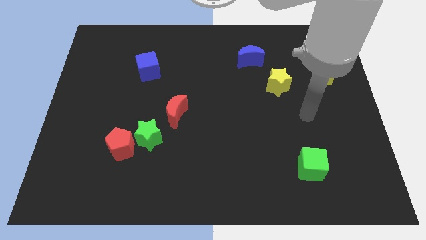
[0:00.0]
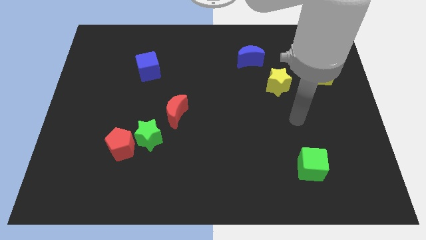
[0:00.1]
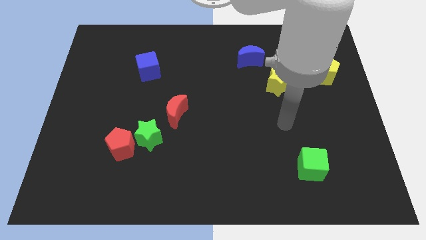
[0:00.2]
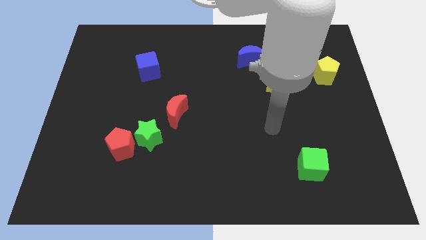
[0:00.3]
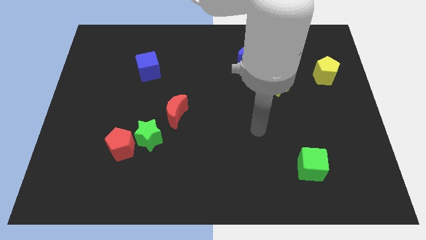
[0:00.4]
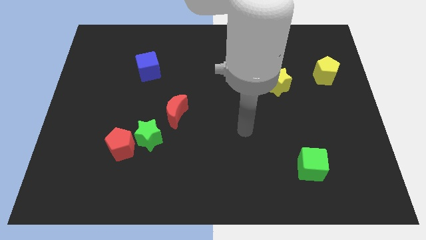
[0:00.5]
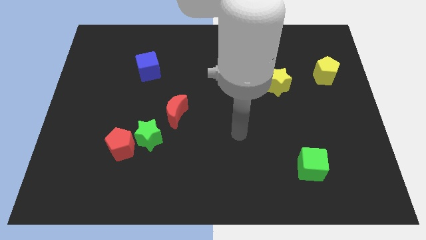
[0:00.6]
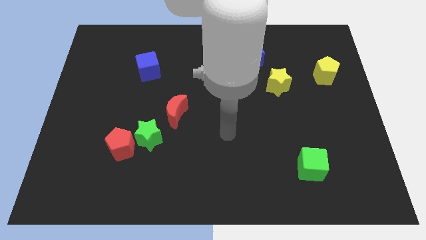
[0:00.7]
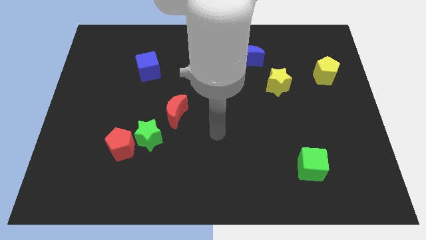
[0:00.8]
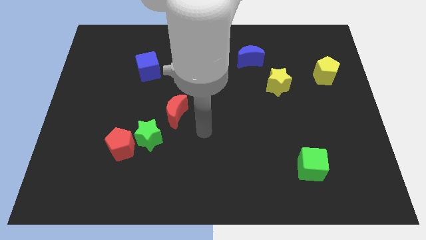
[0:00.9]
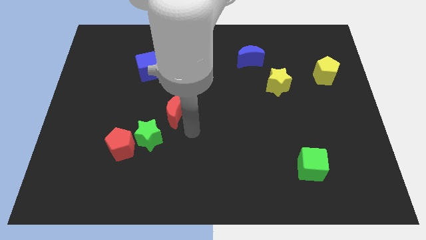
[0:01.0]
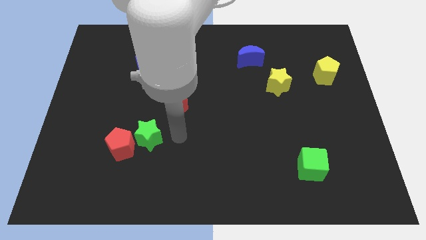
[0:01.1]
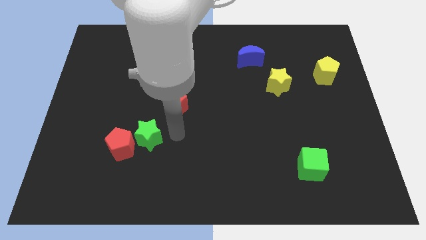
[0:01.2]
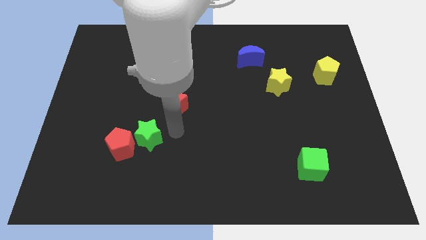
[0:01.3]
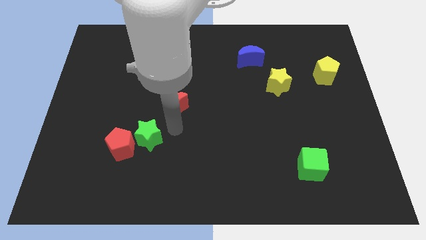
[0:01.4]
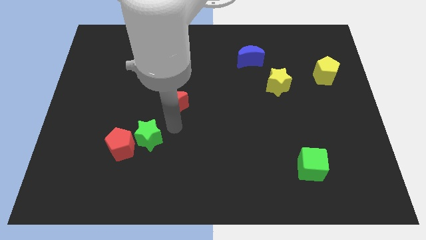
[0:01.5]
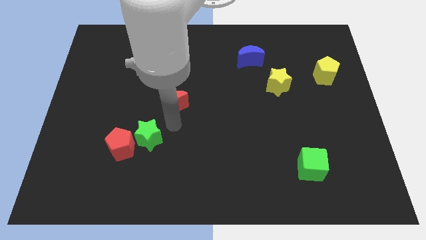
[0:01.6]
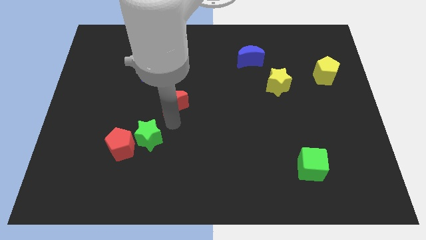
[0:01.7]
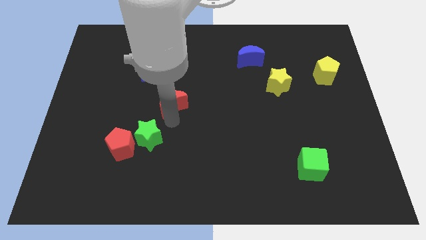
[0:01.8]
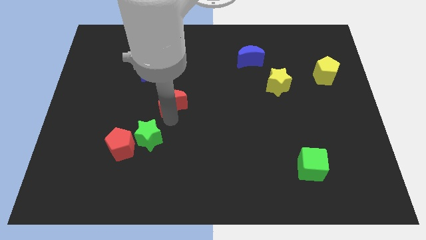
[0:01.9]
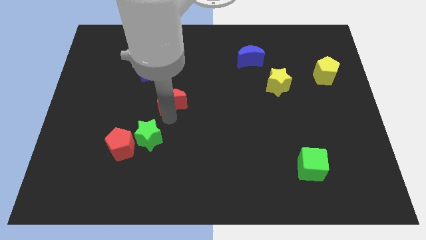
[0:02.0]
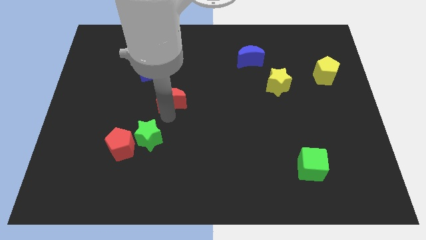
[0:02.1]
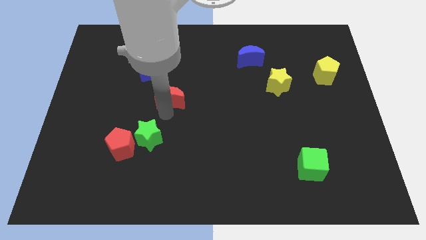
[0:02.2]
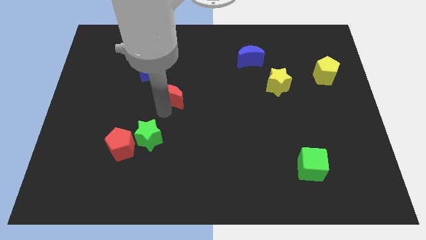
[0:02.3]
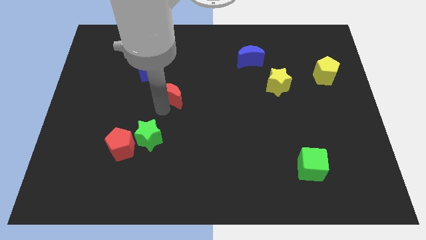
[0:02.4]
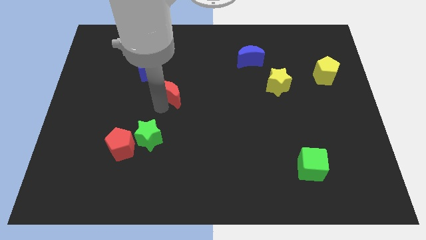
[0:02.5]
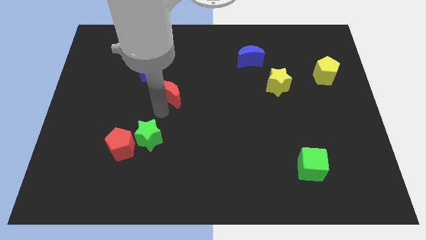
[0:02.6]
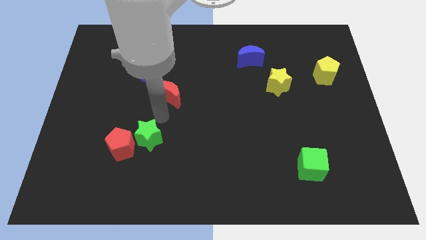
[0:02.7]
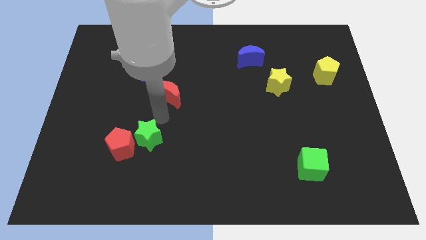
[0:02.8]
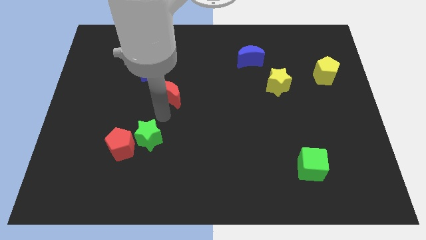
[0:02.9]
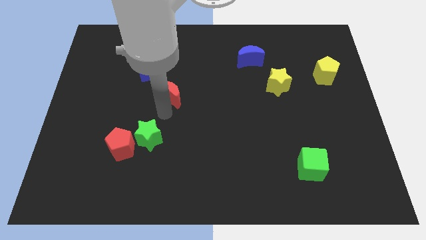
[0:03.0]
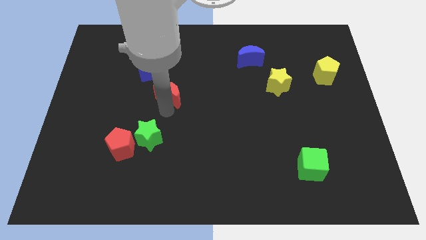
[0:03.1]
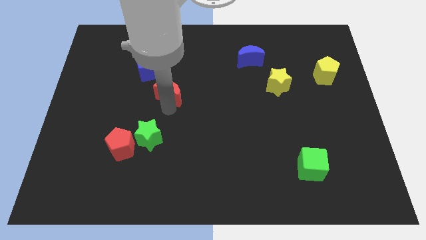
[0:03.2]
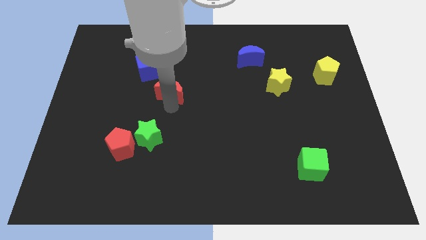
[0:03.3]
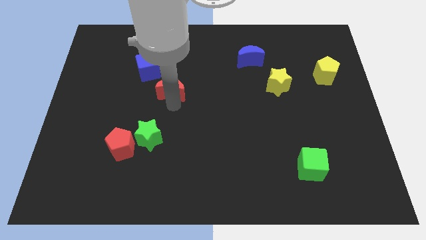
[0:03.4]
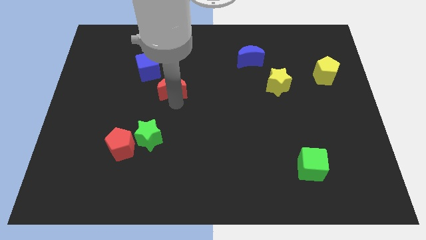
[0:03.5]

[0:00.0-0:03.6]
push the red moon upwards a little bit

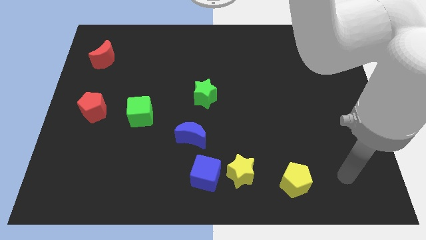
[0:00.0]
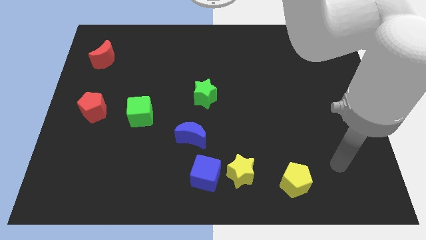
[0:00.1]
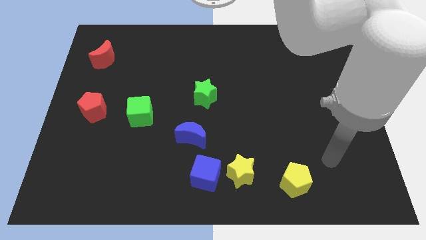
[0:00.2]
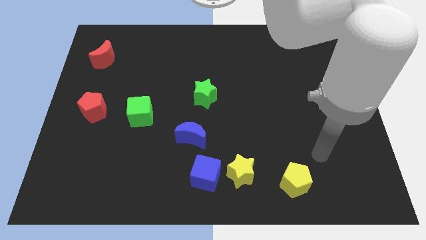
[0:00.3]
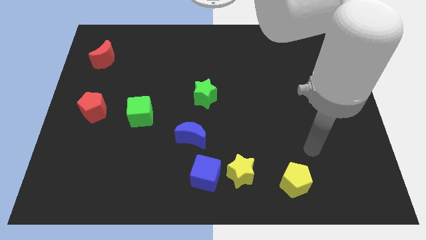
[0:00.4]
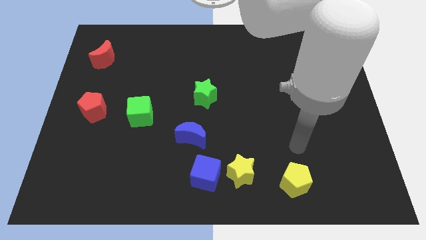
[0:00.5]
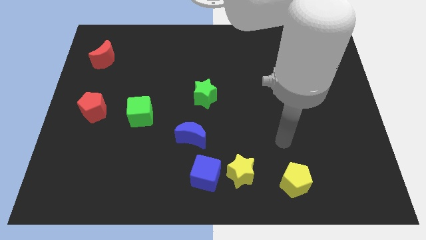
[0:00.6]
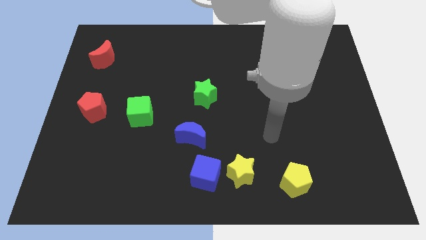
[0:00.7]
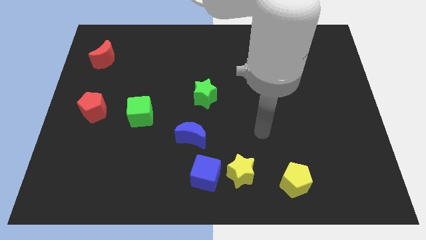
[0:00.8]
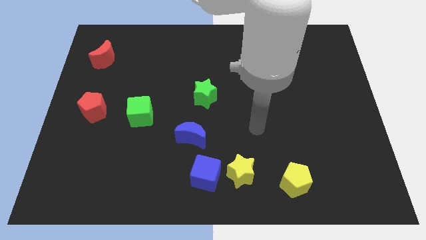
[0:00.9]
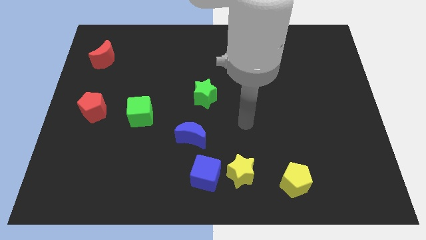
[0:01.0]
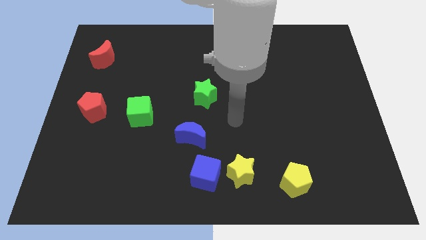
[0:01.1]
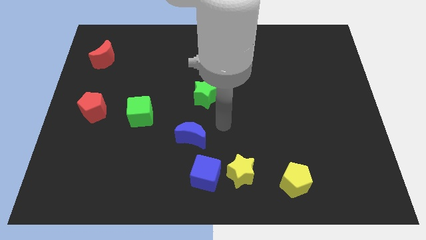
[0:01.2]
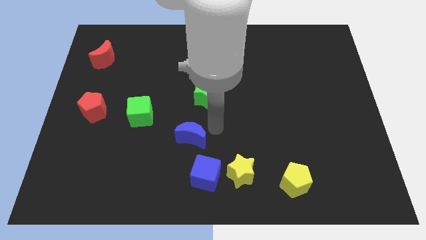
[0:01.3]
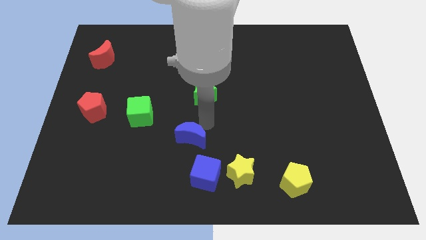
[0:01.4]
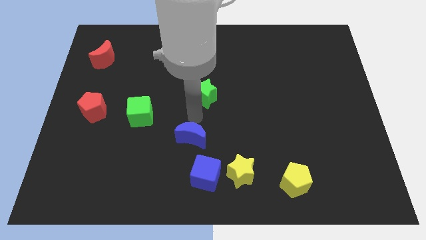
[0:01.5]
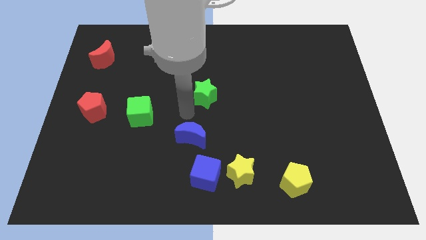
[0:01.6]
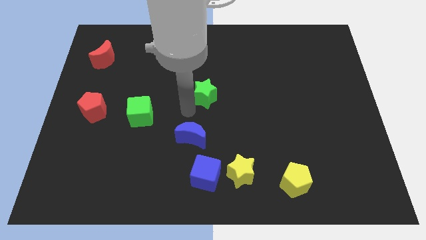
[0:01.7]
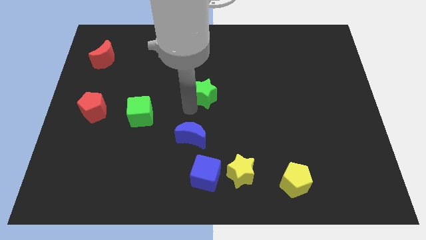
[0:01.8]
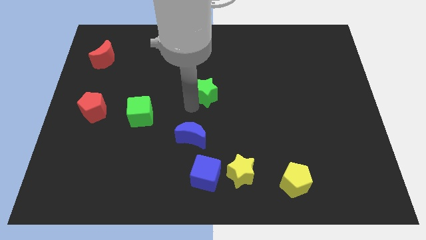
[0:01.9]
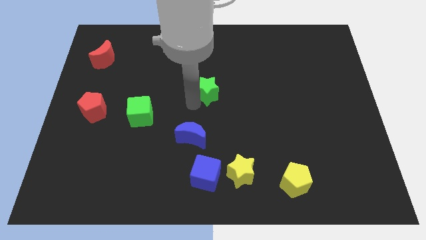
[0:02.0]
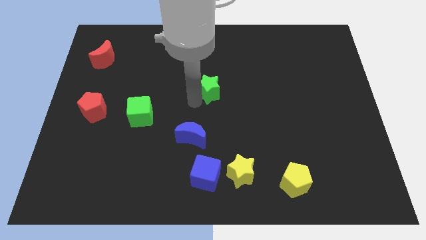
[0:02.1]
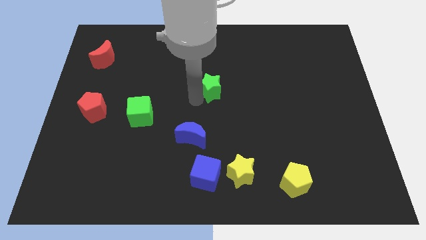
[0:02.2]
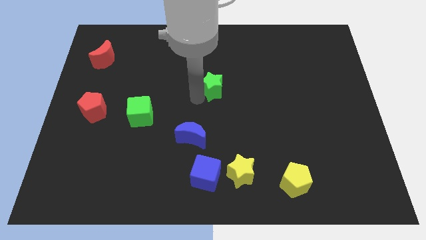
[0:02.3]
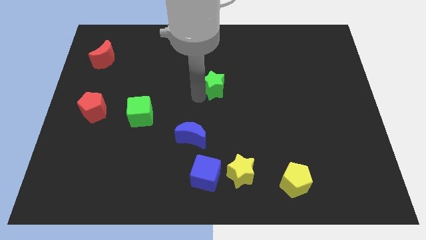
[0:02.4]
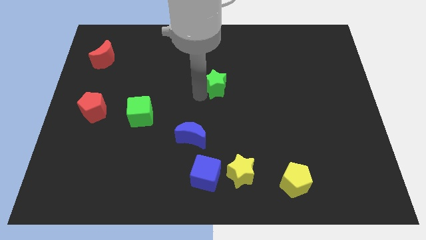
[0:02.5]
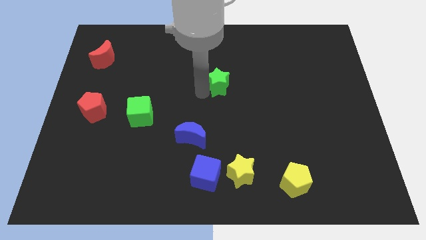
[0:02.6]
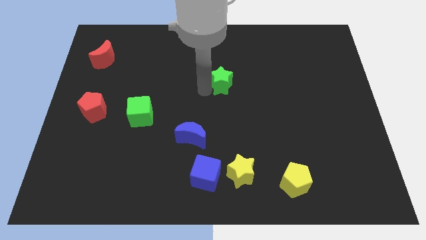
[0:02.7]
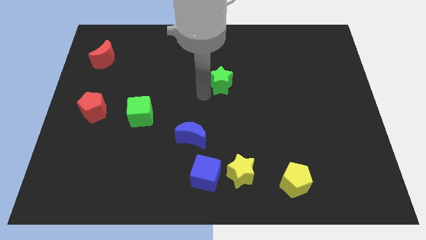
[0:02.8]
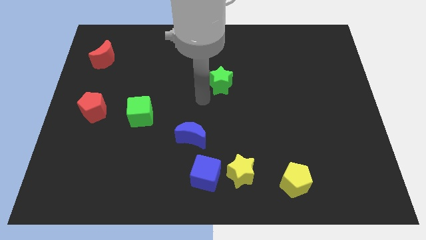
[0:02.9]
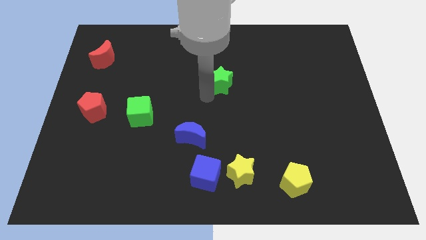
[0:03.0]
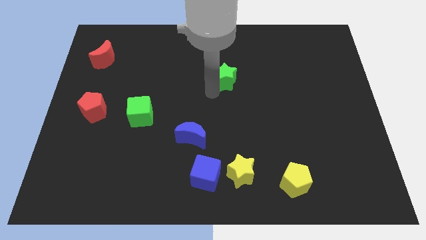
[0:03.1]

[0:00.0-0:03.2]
push the green star upwards and right diagonally somewhat

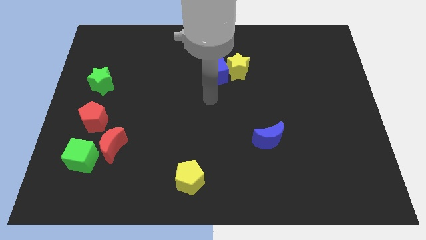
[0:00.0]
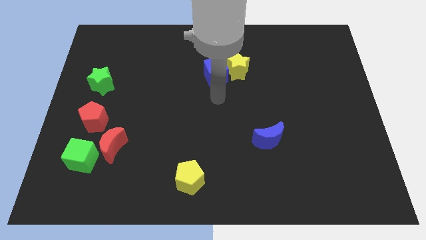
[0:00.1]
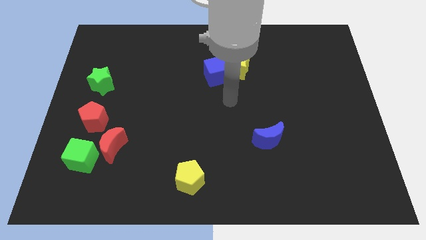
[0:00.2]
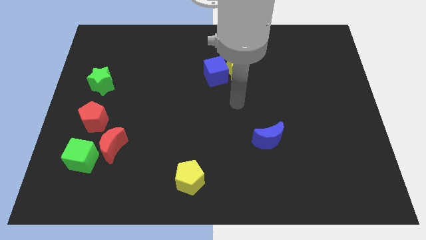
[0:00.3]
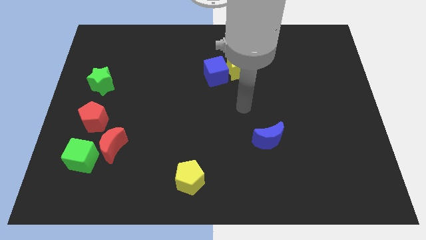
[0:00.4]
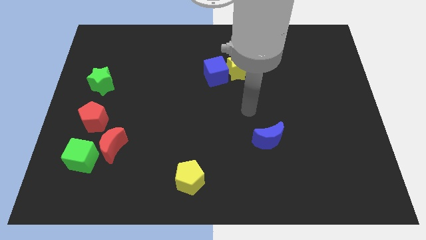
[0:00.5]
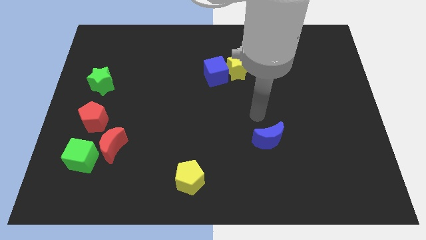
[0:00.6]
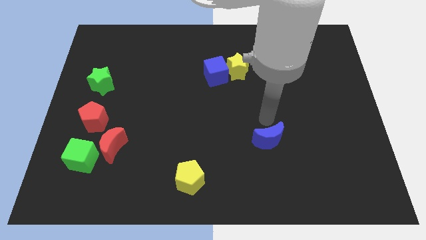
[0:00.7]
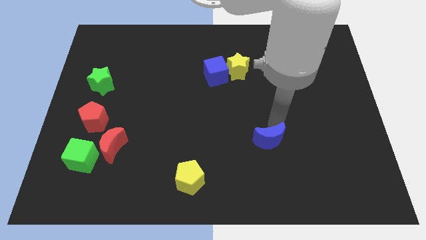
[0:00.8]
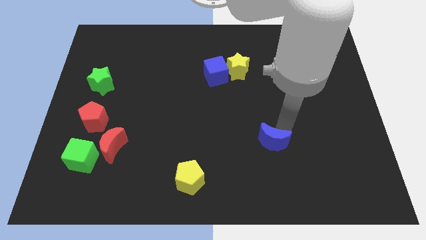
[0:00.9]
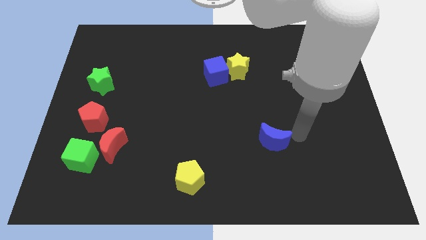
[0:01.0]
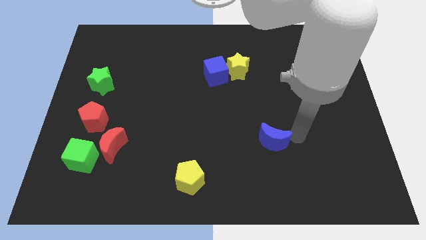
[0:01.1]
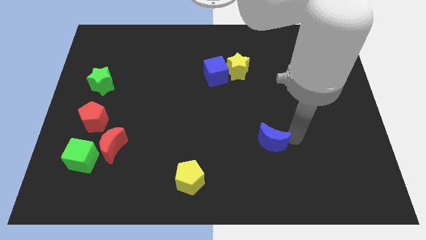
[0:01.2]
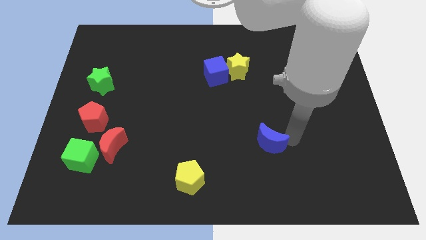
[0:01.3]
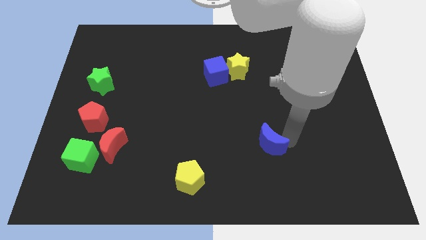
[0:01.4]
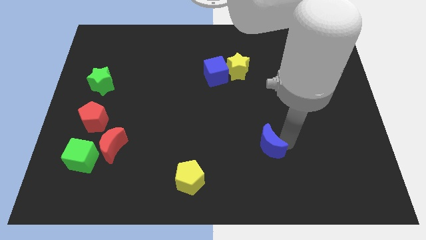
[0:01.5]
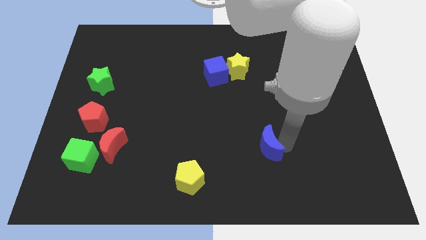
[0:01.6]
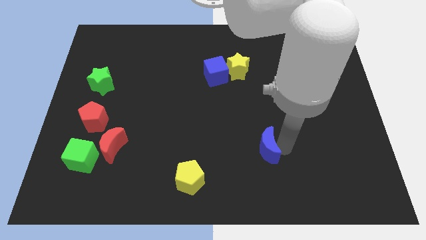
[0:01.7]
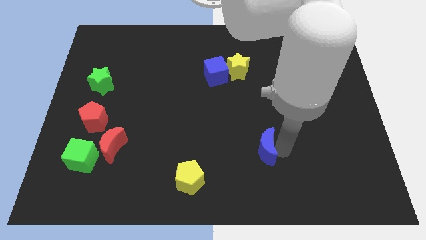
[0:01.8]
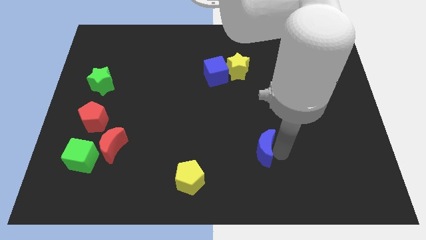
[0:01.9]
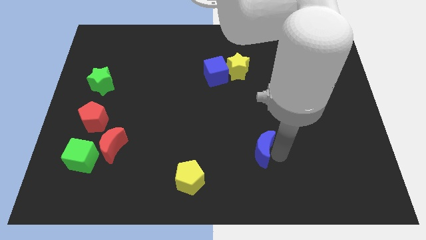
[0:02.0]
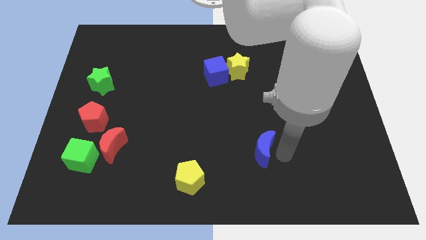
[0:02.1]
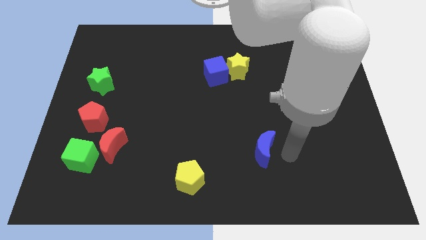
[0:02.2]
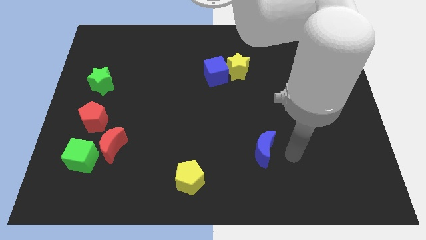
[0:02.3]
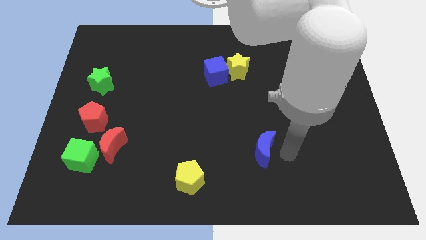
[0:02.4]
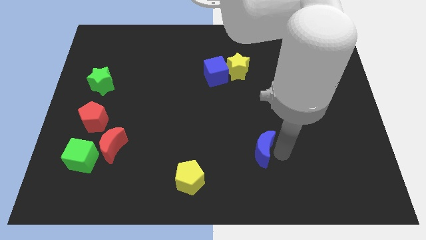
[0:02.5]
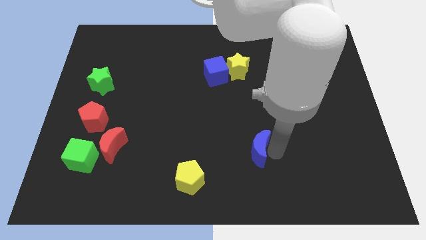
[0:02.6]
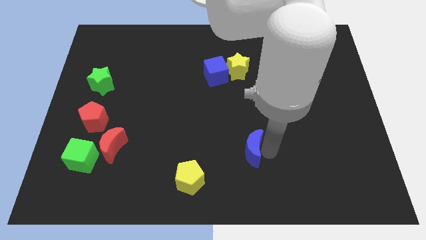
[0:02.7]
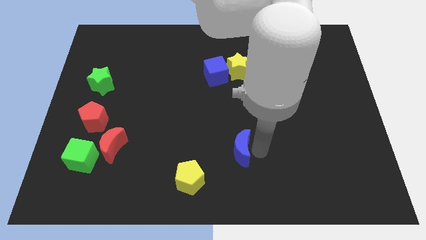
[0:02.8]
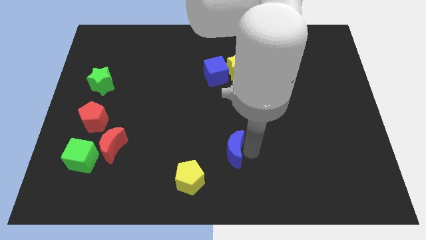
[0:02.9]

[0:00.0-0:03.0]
move the blue moon a little to the left
